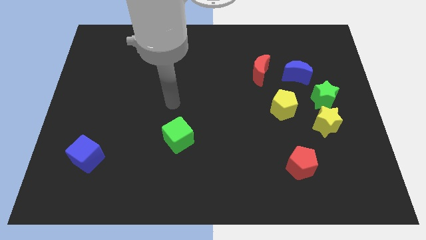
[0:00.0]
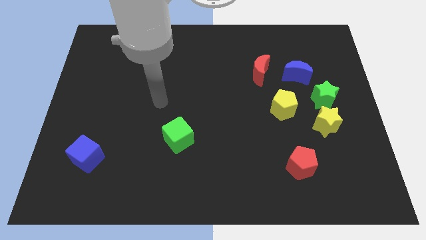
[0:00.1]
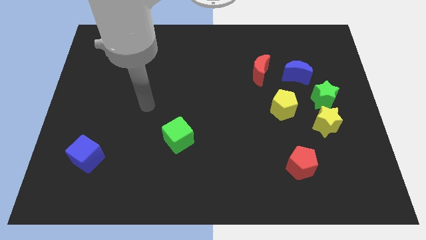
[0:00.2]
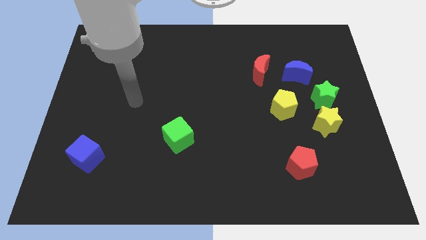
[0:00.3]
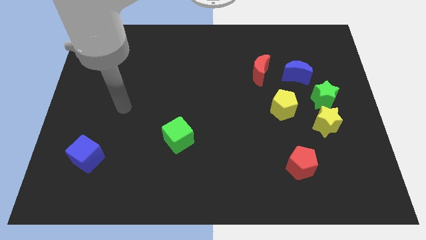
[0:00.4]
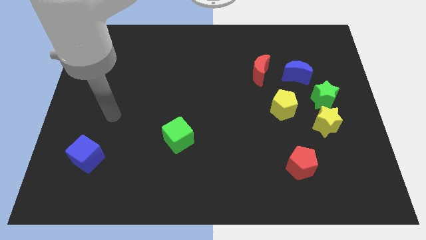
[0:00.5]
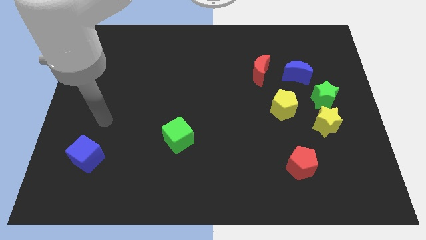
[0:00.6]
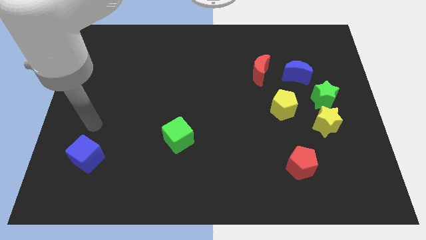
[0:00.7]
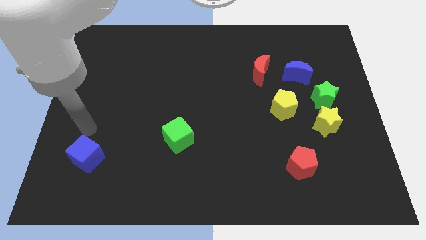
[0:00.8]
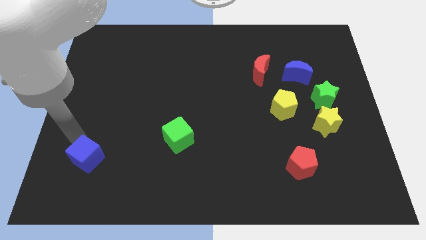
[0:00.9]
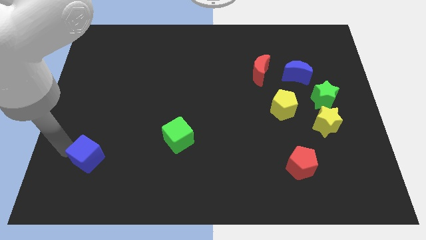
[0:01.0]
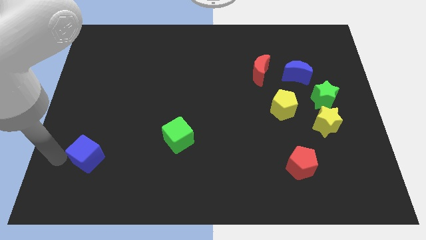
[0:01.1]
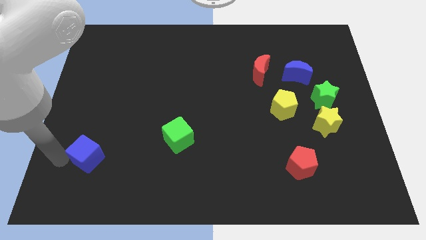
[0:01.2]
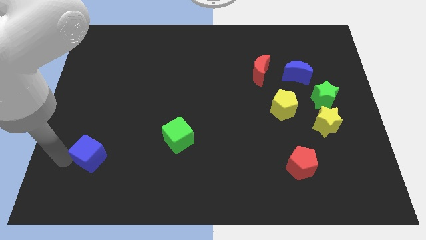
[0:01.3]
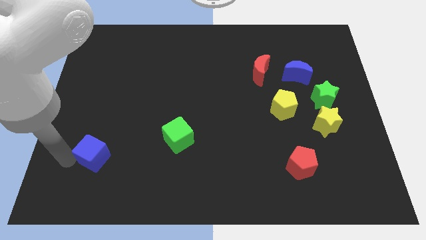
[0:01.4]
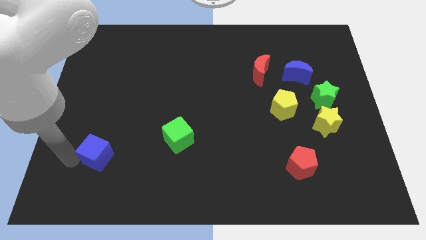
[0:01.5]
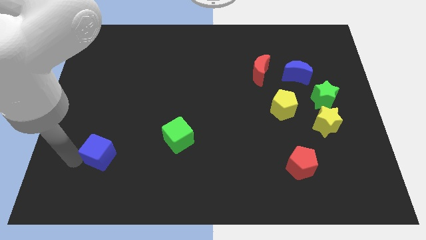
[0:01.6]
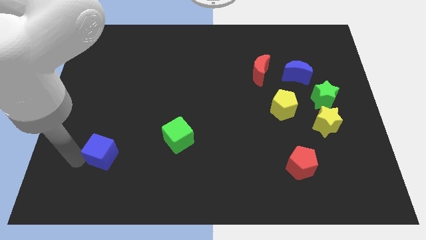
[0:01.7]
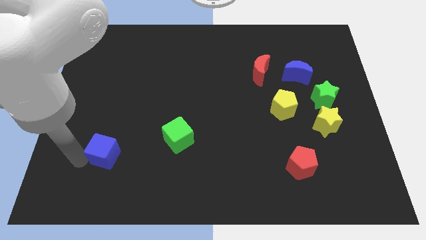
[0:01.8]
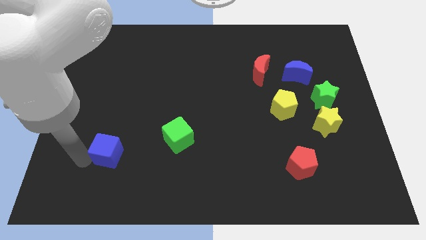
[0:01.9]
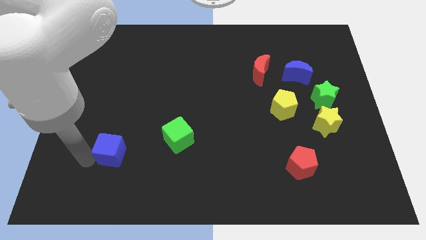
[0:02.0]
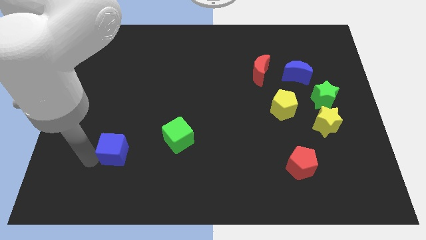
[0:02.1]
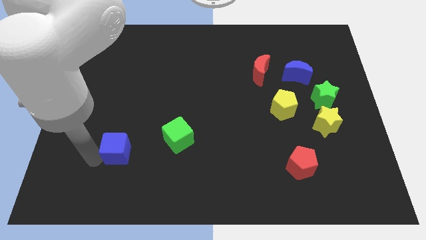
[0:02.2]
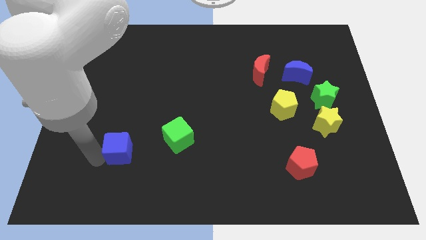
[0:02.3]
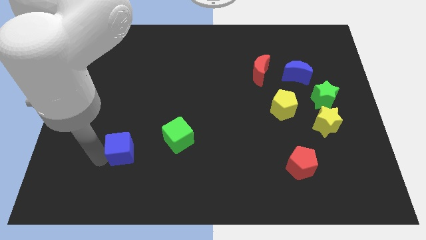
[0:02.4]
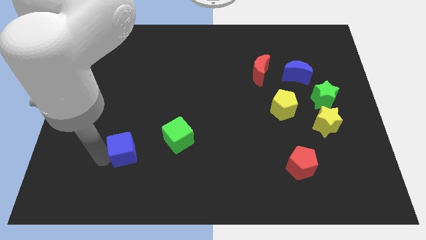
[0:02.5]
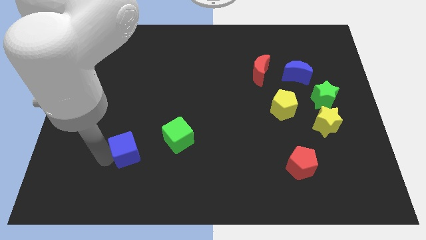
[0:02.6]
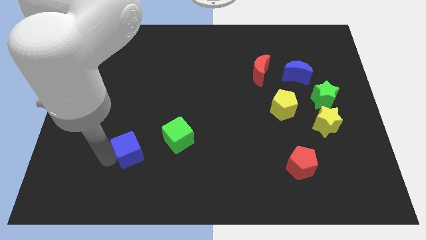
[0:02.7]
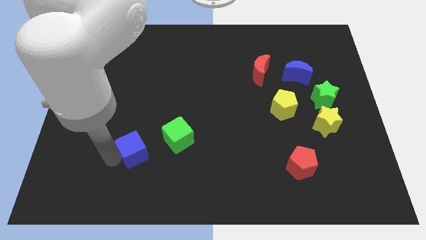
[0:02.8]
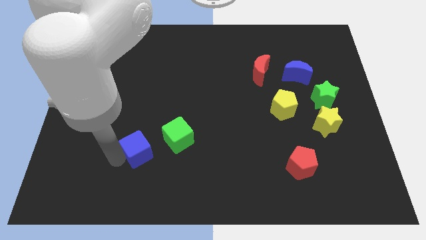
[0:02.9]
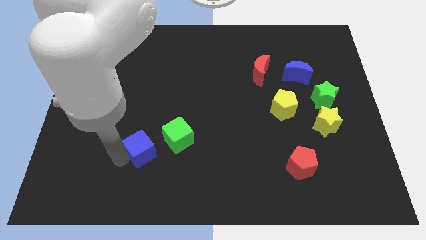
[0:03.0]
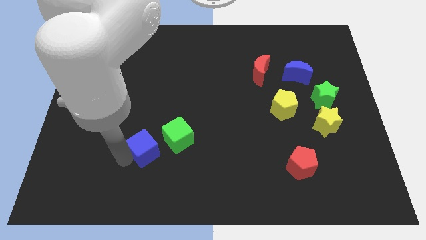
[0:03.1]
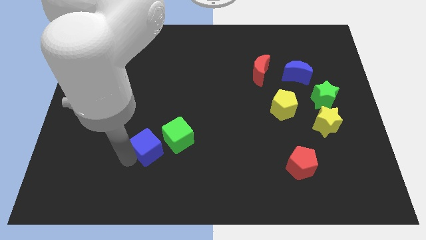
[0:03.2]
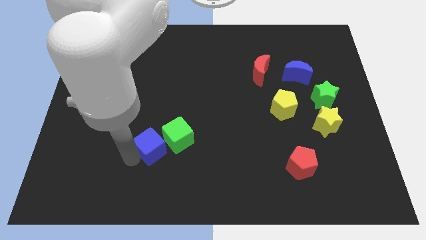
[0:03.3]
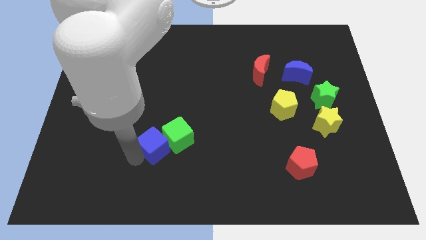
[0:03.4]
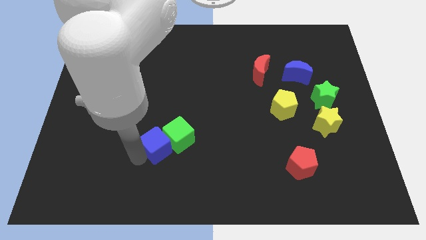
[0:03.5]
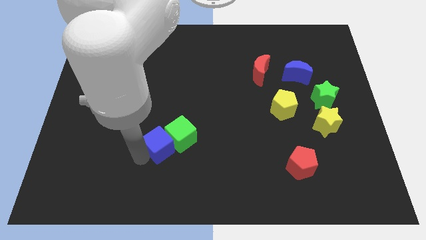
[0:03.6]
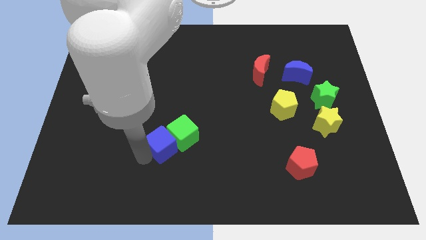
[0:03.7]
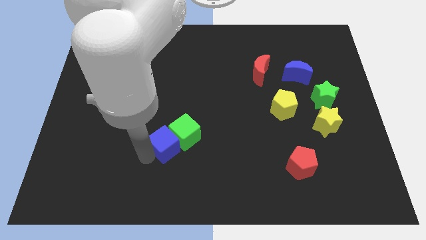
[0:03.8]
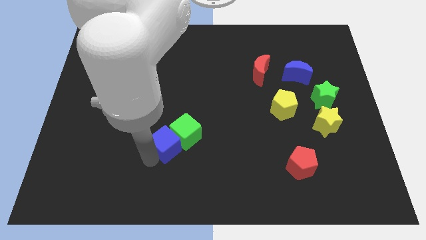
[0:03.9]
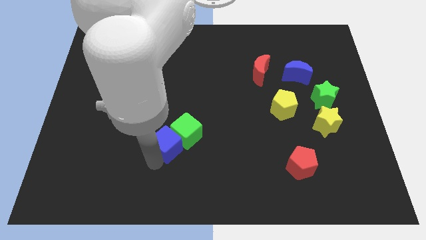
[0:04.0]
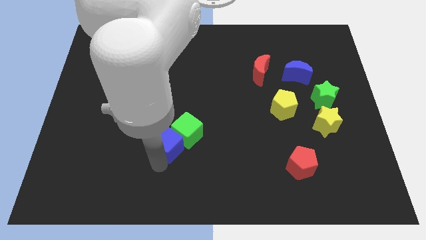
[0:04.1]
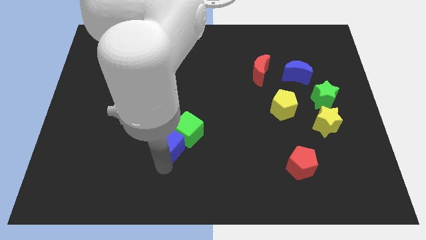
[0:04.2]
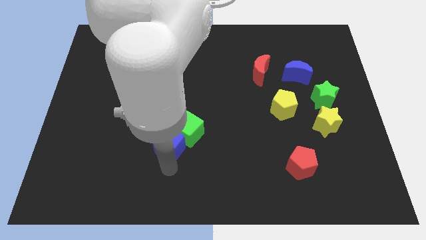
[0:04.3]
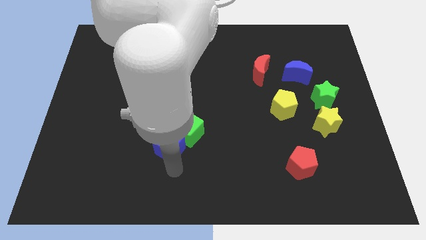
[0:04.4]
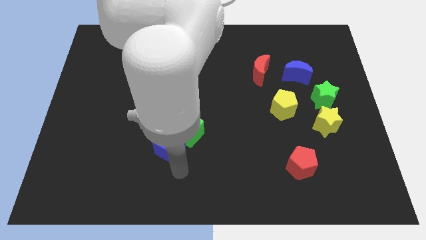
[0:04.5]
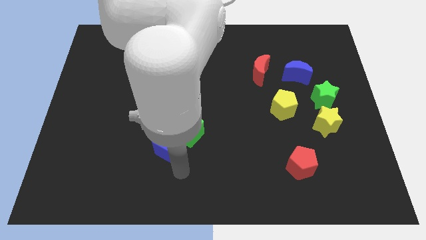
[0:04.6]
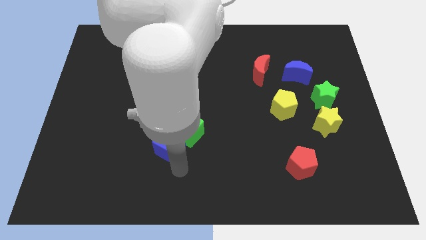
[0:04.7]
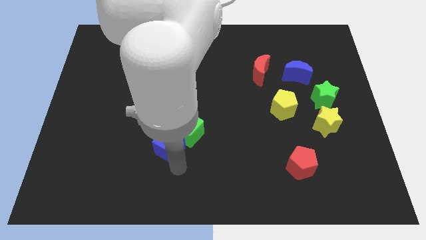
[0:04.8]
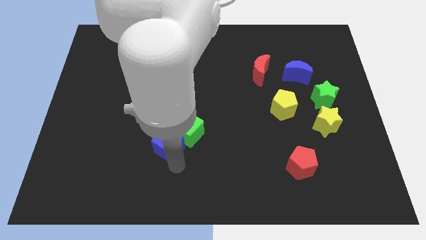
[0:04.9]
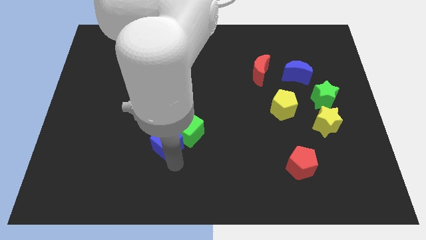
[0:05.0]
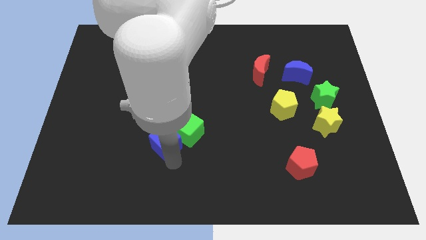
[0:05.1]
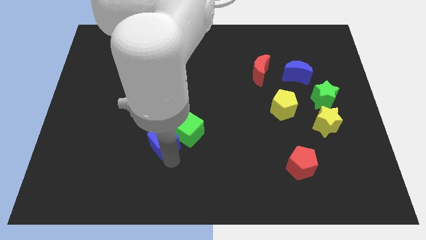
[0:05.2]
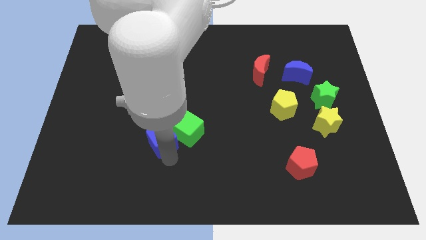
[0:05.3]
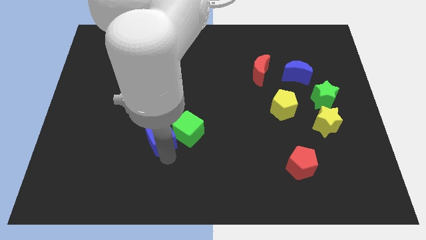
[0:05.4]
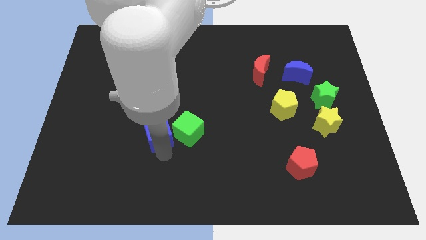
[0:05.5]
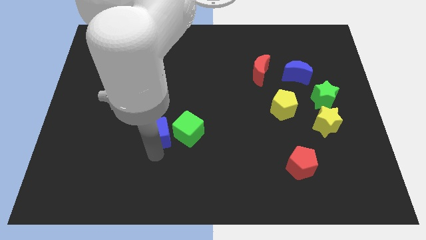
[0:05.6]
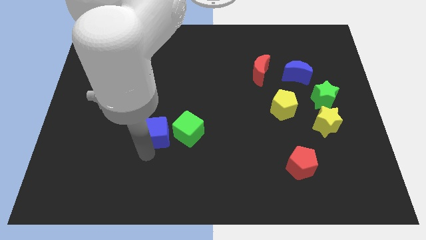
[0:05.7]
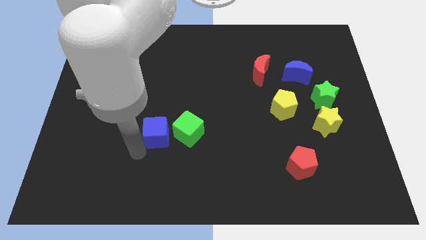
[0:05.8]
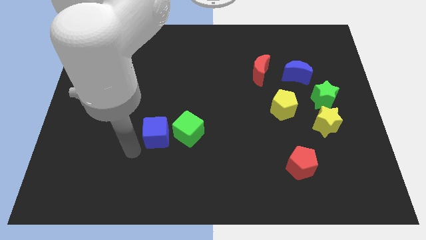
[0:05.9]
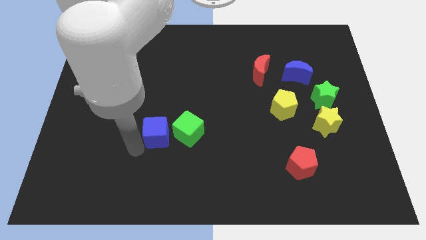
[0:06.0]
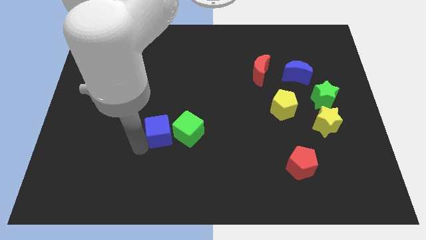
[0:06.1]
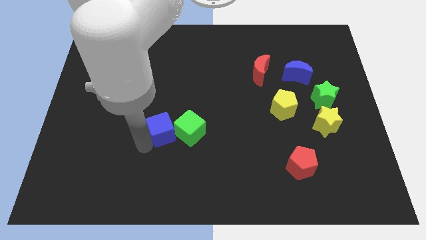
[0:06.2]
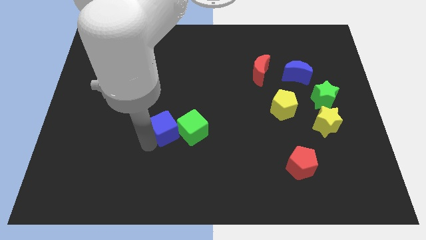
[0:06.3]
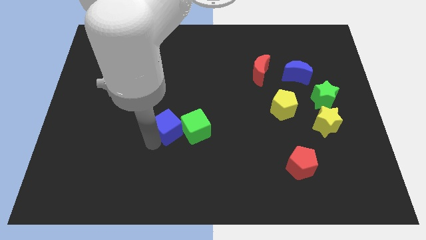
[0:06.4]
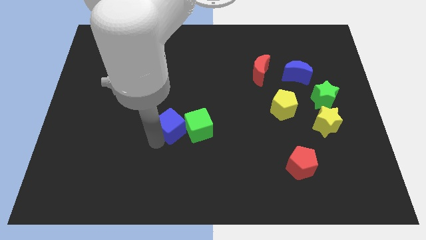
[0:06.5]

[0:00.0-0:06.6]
move the blue cube to the middle of the board
